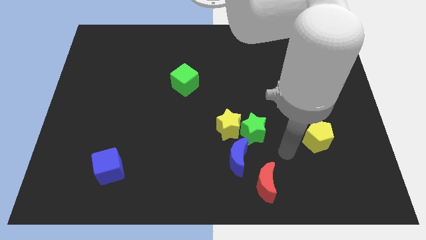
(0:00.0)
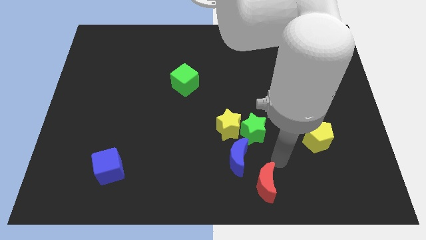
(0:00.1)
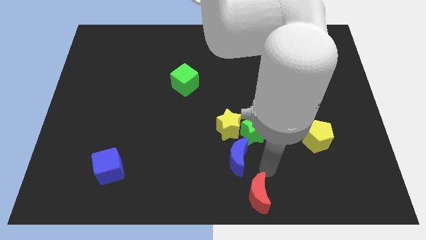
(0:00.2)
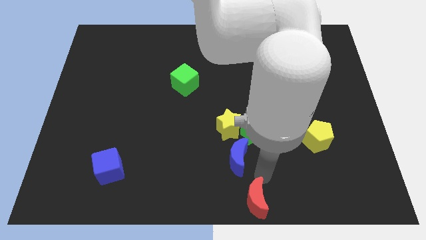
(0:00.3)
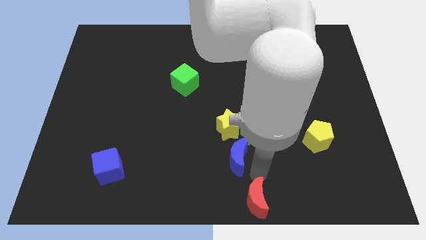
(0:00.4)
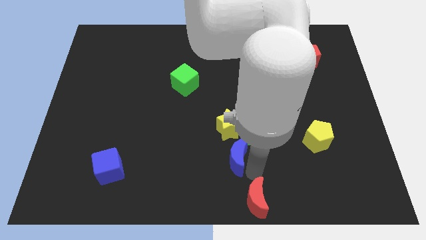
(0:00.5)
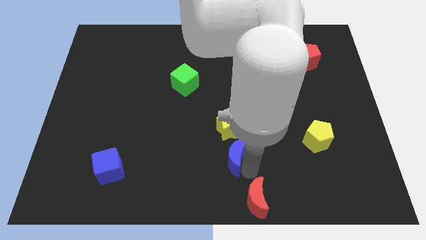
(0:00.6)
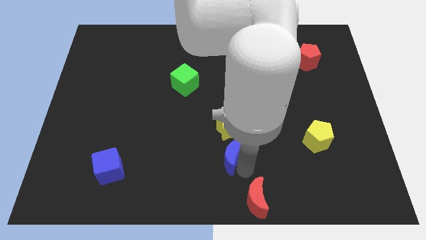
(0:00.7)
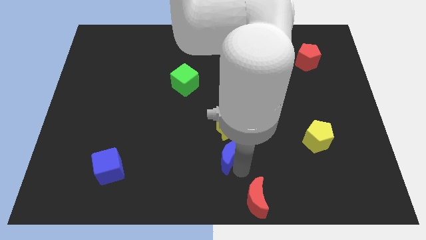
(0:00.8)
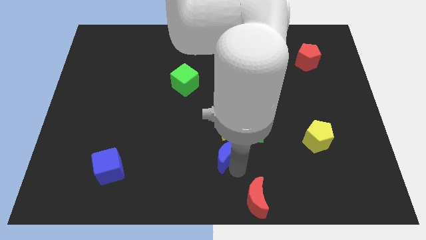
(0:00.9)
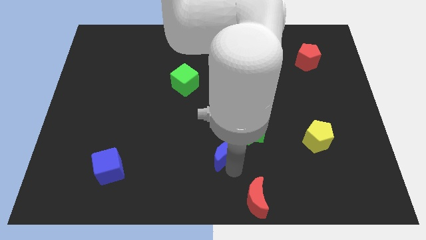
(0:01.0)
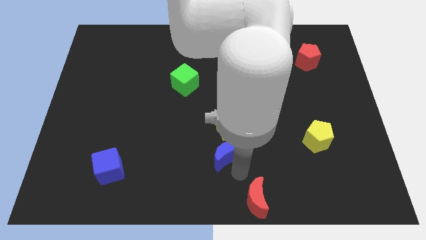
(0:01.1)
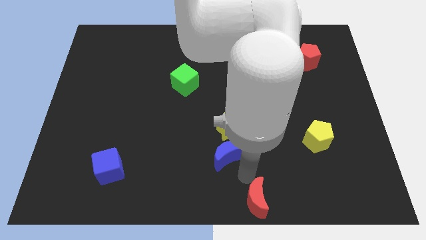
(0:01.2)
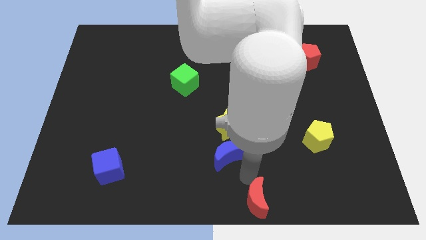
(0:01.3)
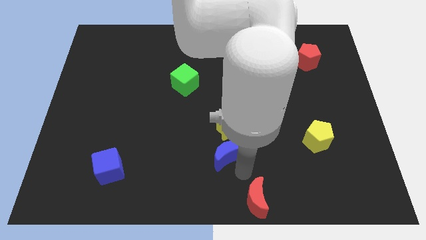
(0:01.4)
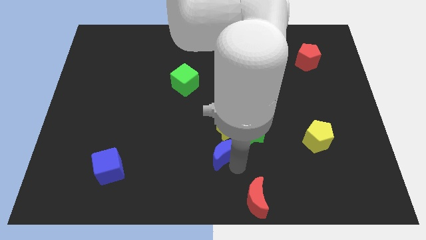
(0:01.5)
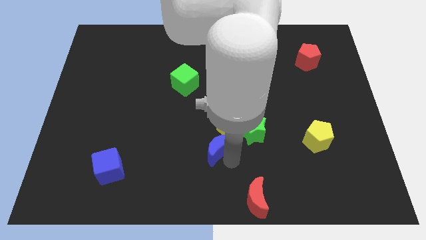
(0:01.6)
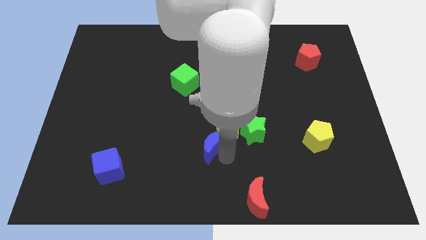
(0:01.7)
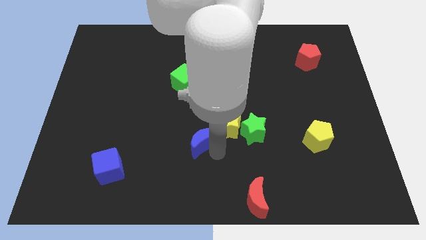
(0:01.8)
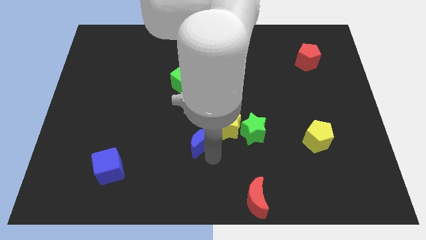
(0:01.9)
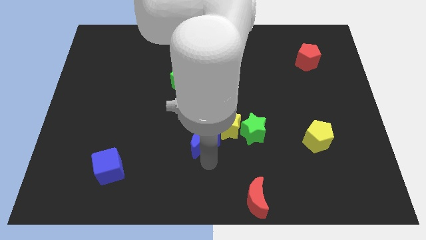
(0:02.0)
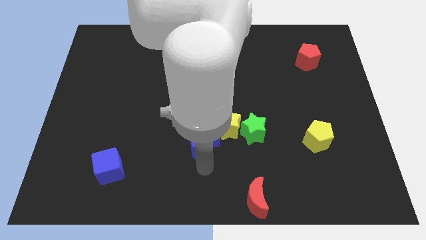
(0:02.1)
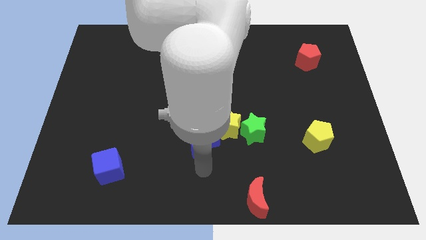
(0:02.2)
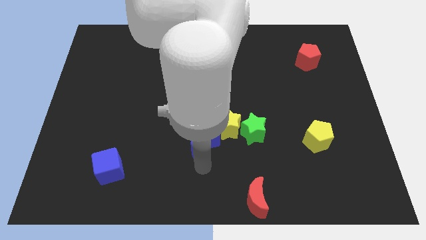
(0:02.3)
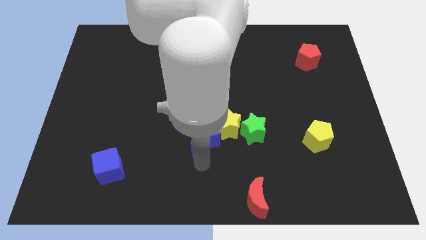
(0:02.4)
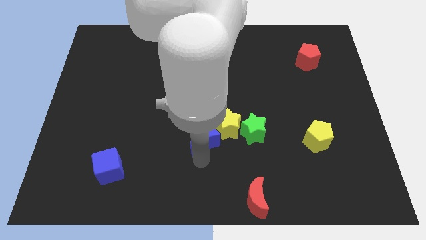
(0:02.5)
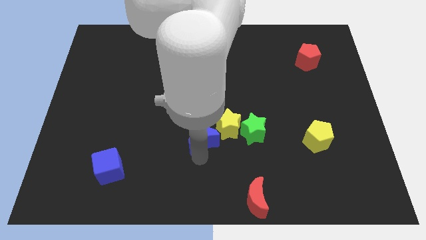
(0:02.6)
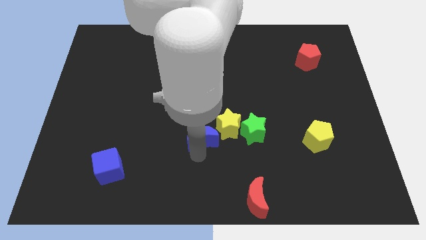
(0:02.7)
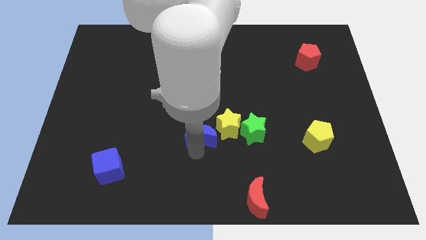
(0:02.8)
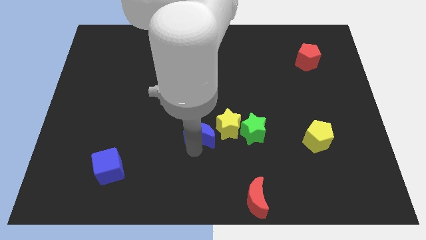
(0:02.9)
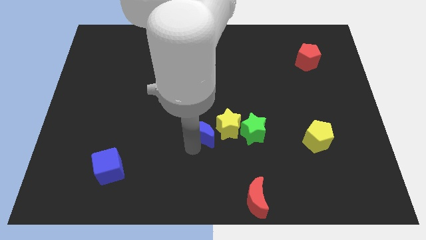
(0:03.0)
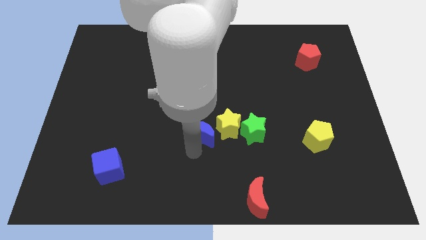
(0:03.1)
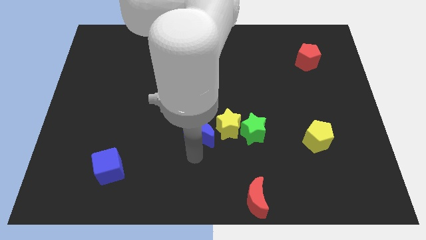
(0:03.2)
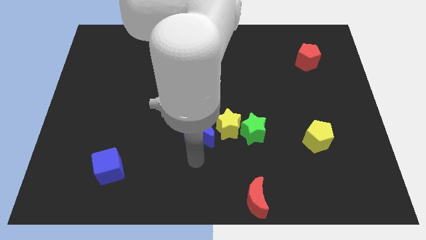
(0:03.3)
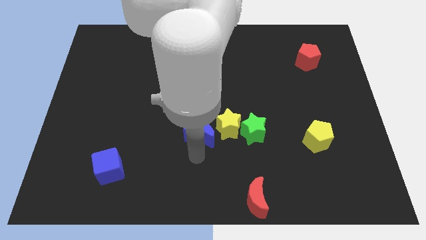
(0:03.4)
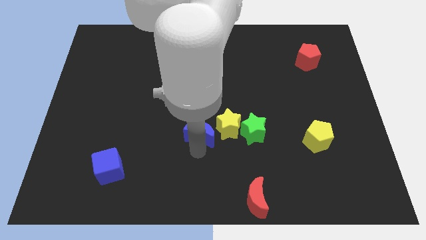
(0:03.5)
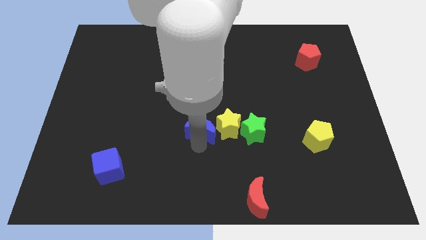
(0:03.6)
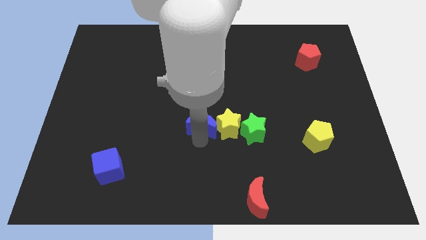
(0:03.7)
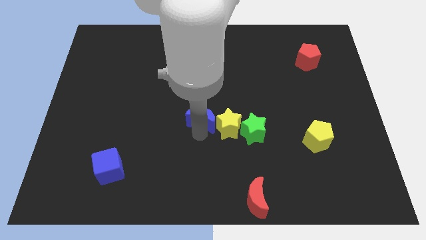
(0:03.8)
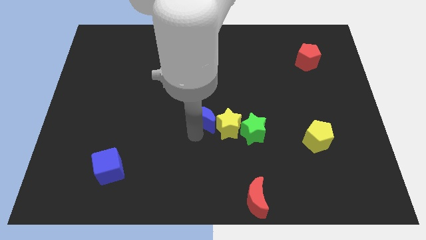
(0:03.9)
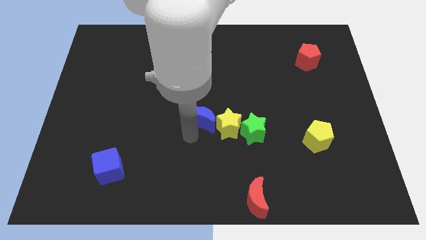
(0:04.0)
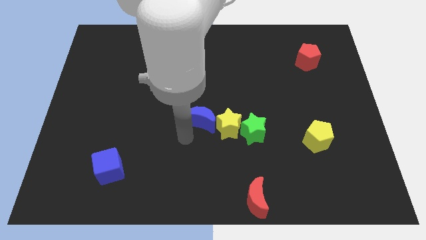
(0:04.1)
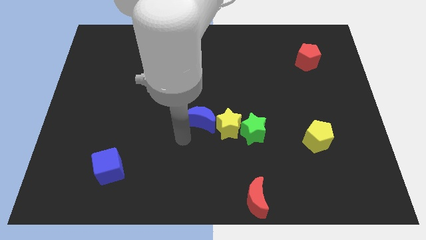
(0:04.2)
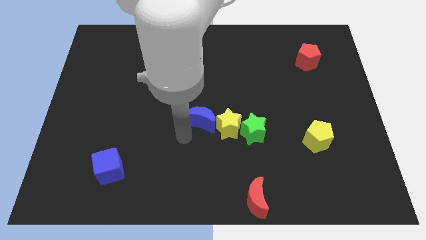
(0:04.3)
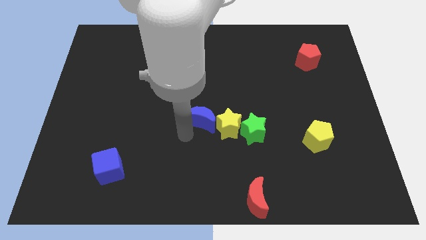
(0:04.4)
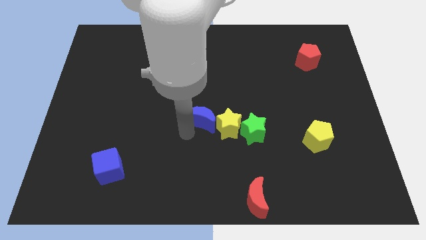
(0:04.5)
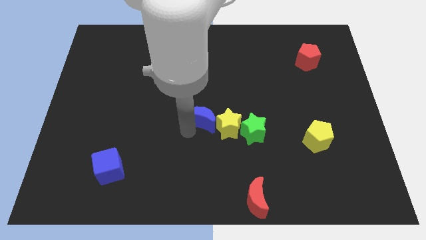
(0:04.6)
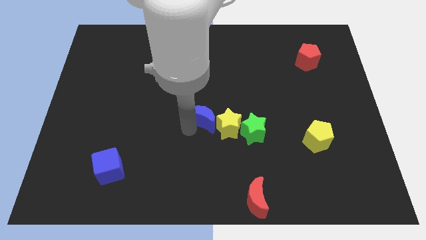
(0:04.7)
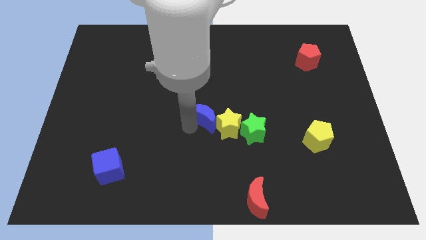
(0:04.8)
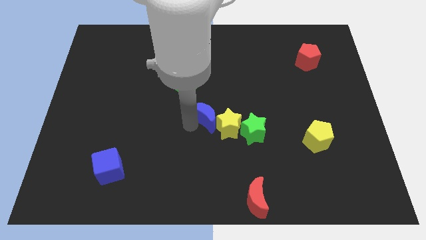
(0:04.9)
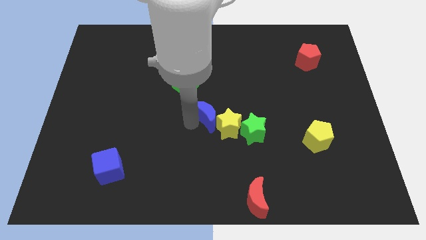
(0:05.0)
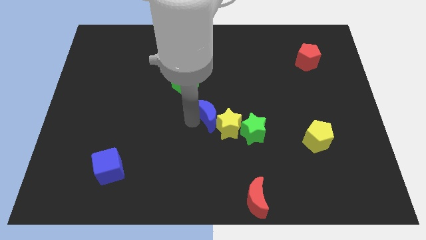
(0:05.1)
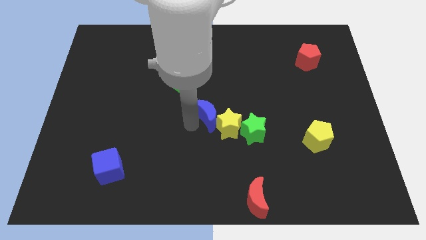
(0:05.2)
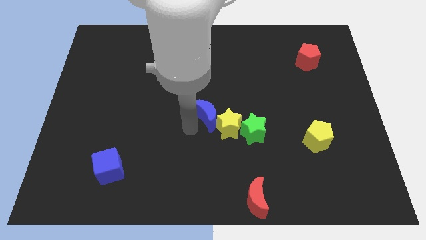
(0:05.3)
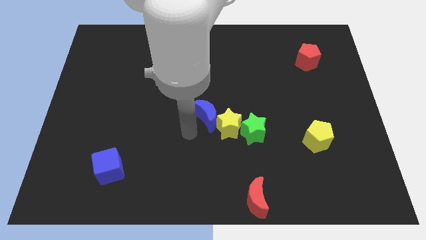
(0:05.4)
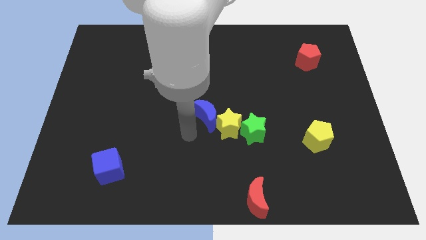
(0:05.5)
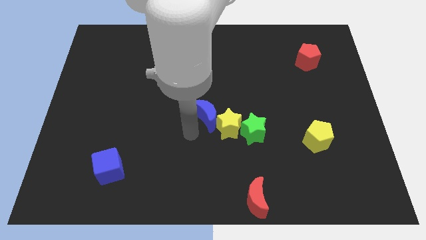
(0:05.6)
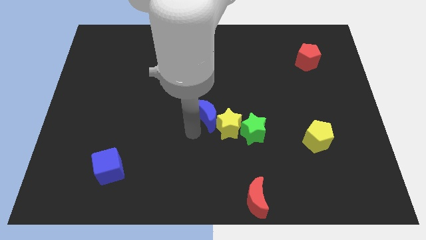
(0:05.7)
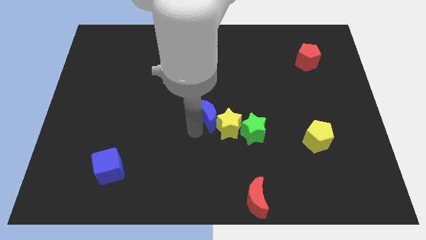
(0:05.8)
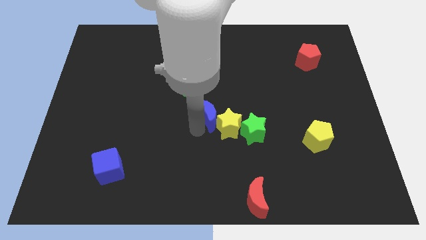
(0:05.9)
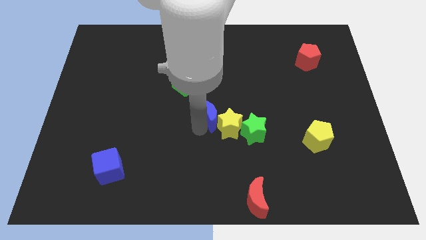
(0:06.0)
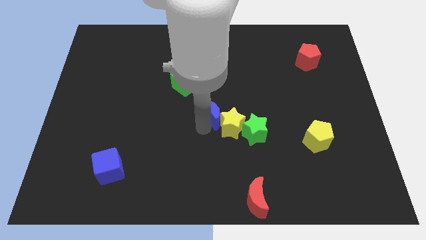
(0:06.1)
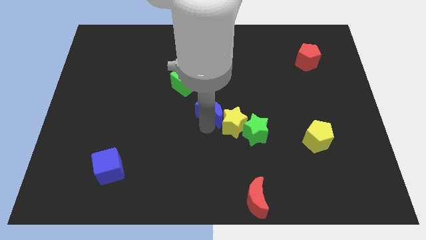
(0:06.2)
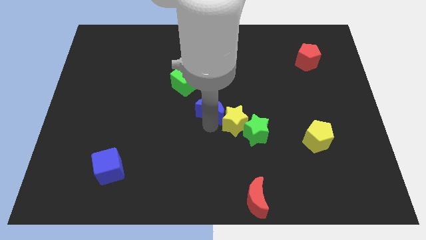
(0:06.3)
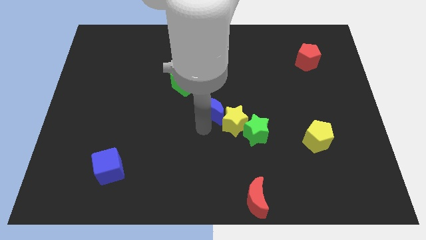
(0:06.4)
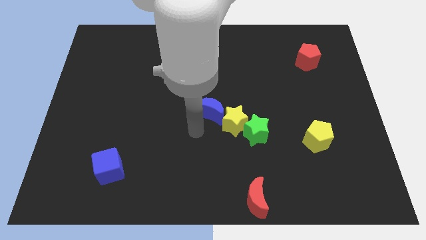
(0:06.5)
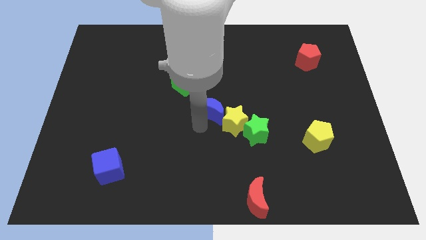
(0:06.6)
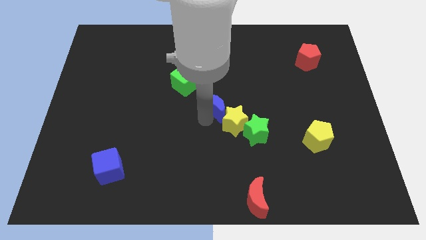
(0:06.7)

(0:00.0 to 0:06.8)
put the blue moon to the top side of the yellow star
